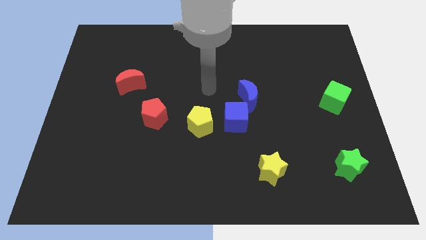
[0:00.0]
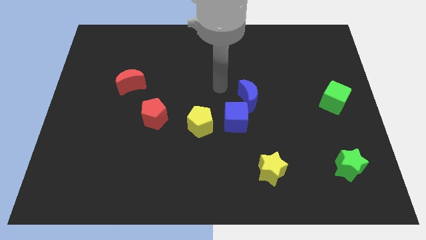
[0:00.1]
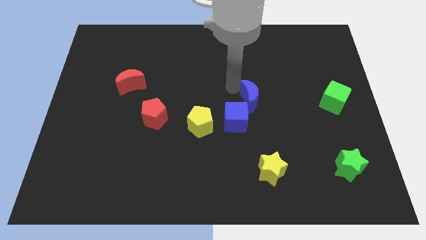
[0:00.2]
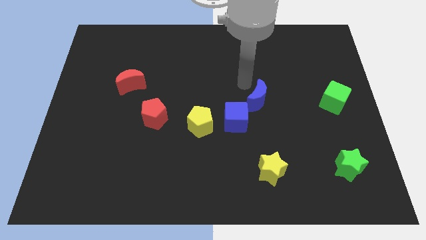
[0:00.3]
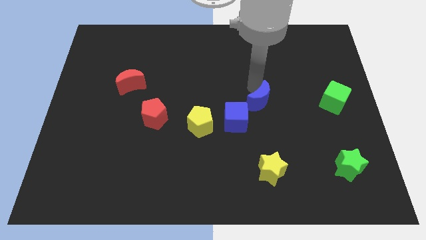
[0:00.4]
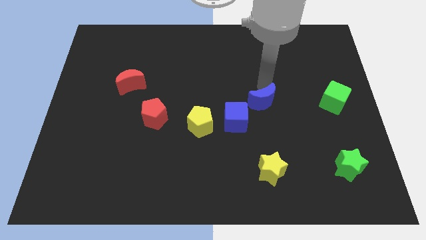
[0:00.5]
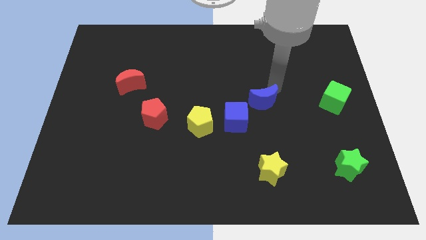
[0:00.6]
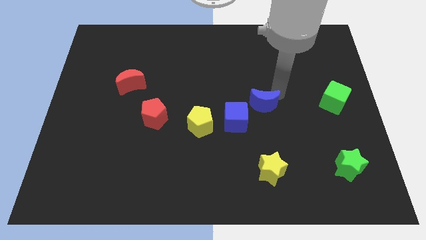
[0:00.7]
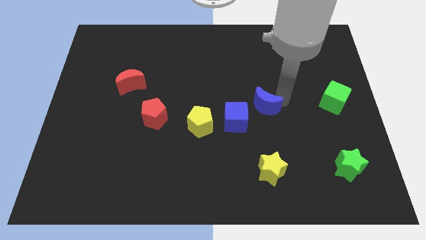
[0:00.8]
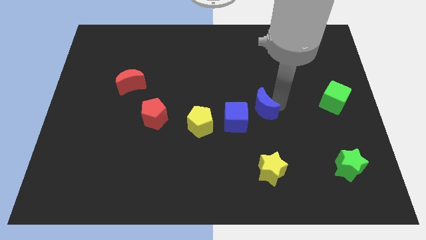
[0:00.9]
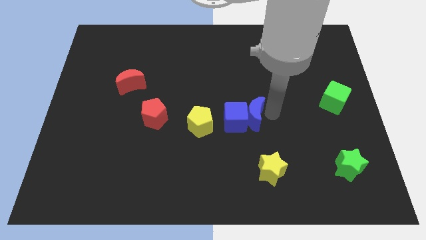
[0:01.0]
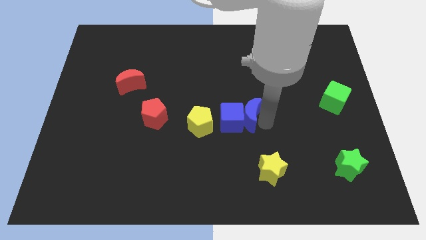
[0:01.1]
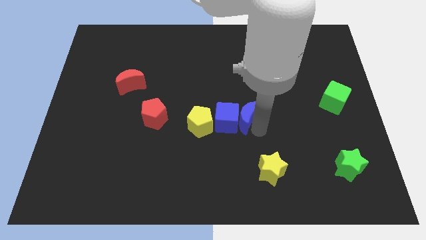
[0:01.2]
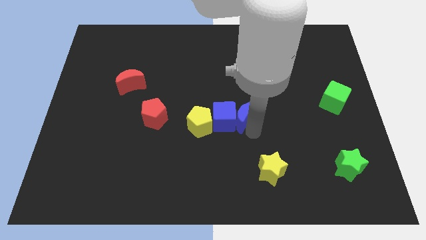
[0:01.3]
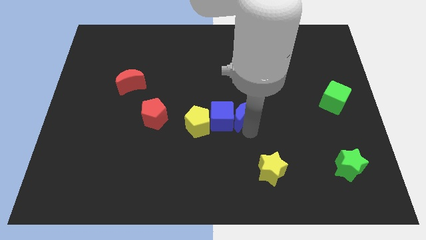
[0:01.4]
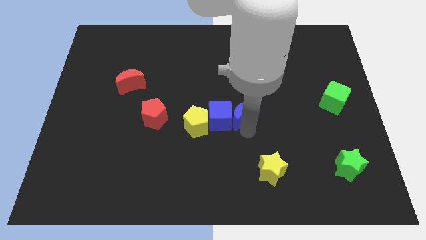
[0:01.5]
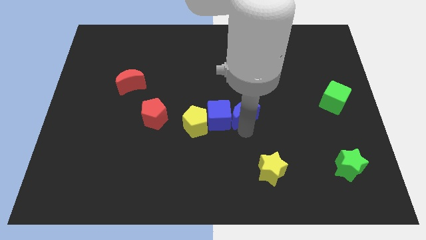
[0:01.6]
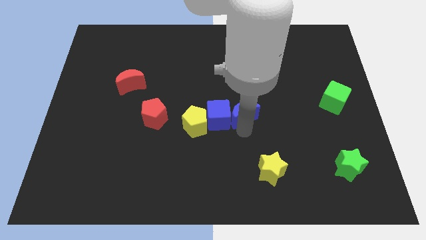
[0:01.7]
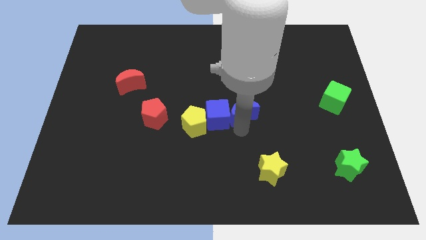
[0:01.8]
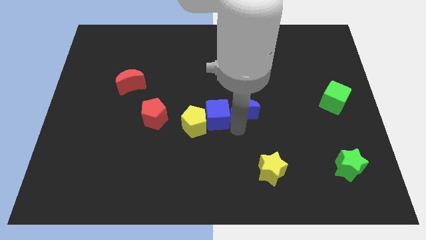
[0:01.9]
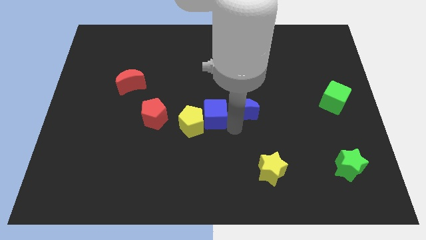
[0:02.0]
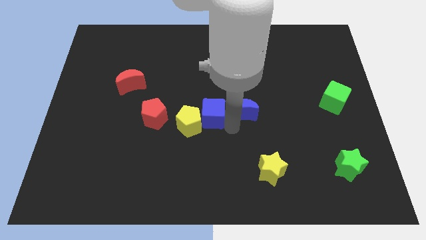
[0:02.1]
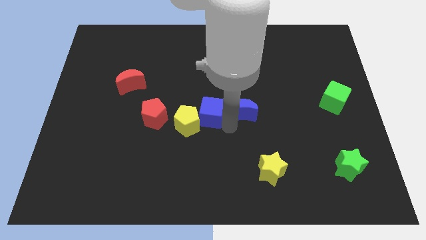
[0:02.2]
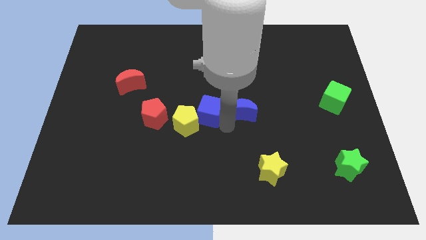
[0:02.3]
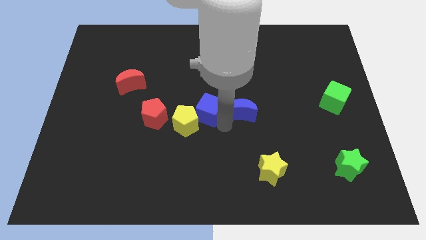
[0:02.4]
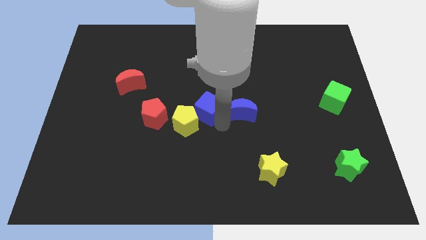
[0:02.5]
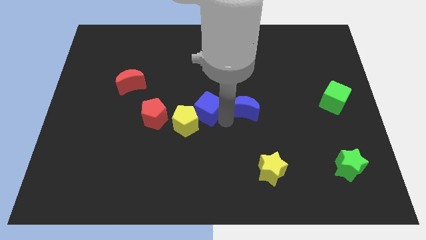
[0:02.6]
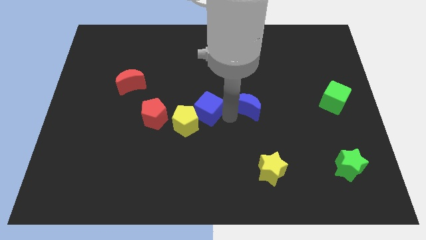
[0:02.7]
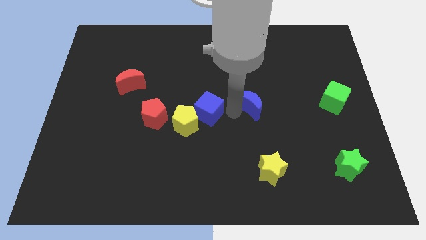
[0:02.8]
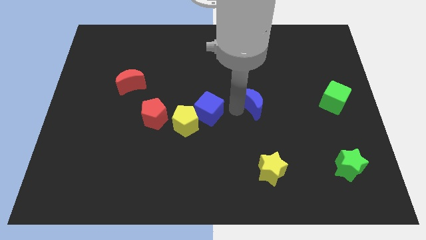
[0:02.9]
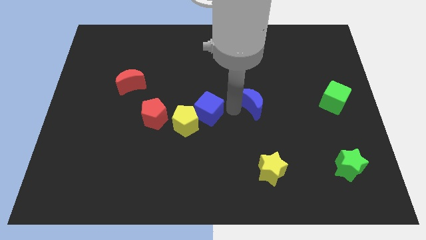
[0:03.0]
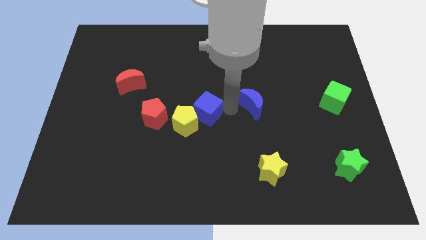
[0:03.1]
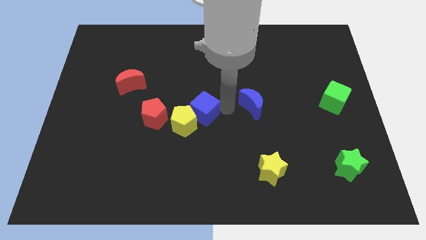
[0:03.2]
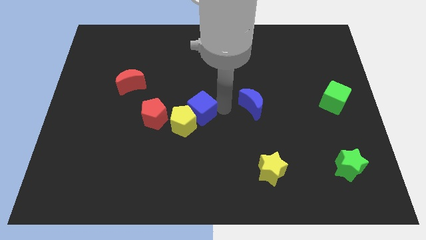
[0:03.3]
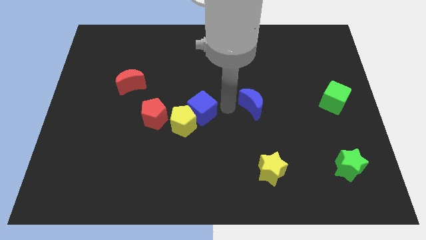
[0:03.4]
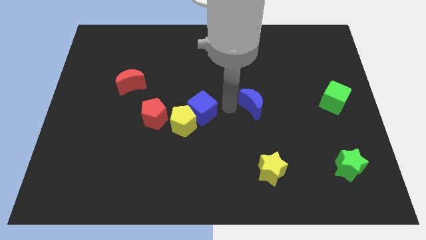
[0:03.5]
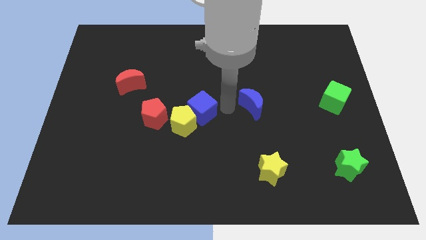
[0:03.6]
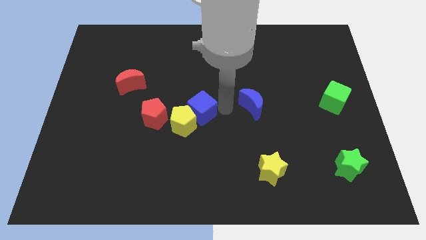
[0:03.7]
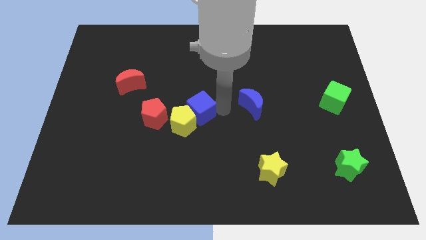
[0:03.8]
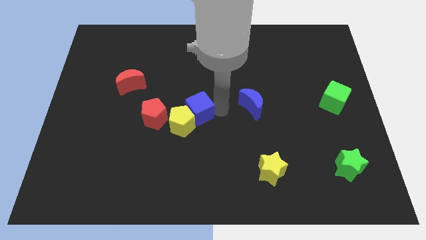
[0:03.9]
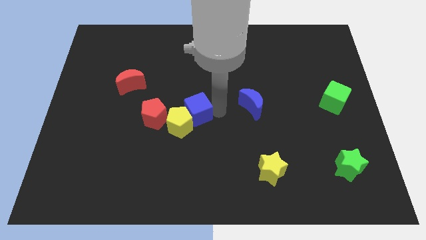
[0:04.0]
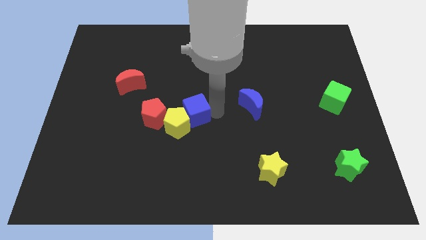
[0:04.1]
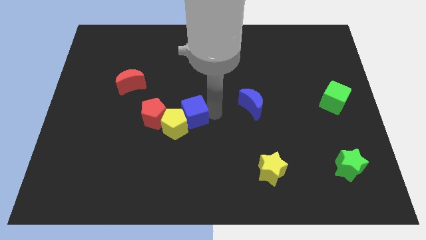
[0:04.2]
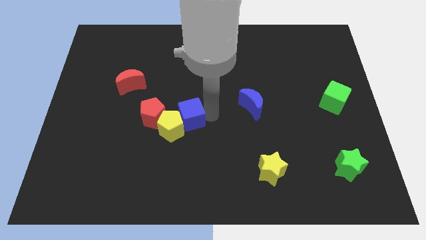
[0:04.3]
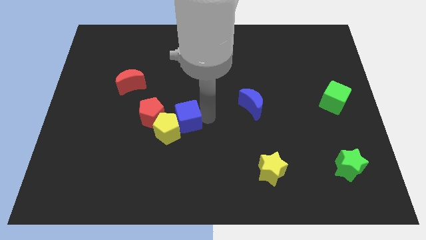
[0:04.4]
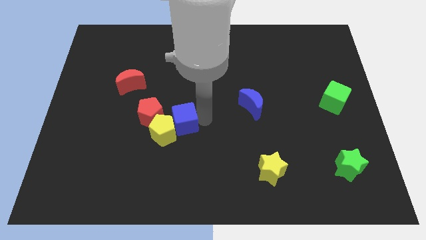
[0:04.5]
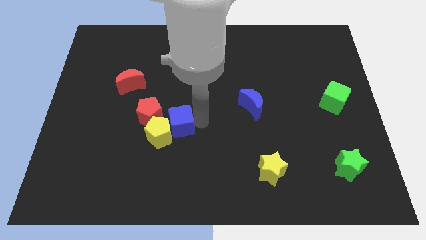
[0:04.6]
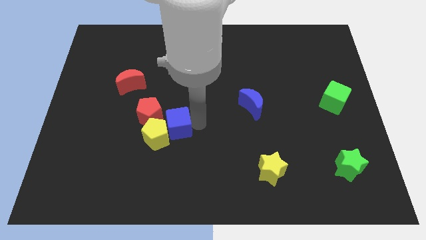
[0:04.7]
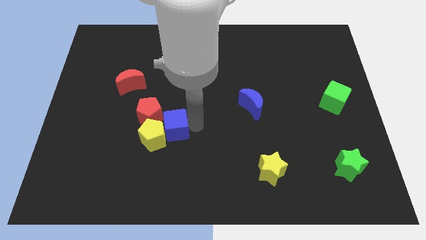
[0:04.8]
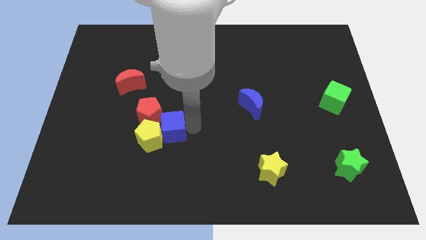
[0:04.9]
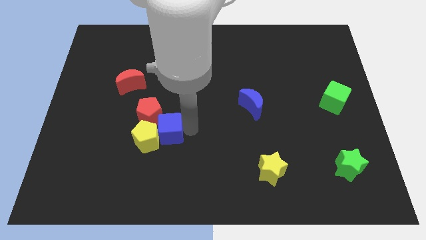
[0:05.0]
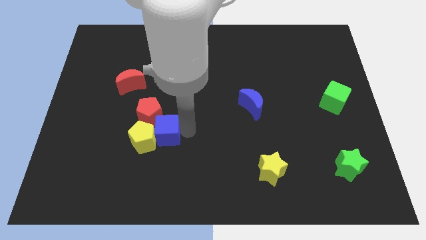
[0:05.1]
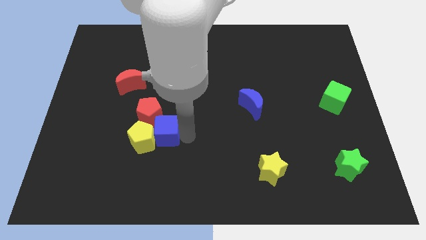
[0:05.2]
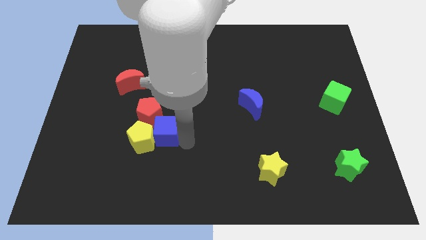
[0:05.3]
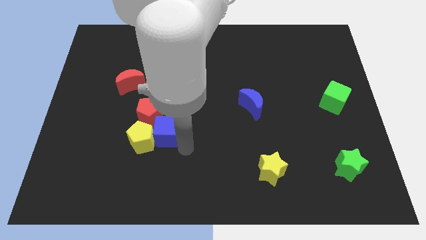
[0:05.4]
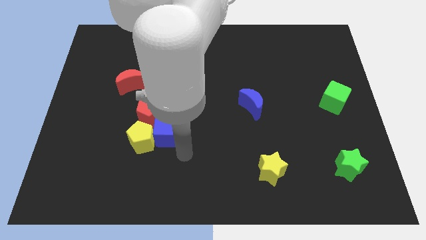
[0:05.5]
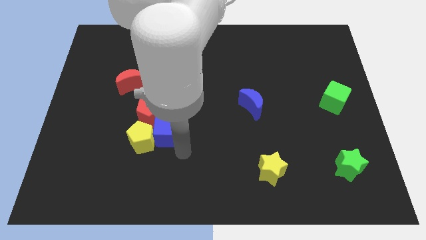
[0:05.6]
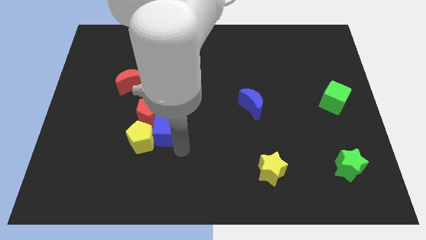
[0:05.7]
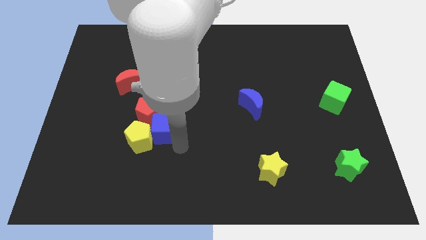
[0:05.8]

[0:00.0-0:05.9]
put the blue cube towards the red pentagon
